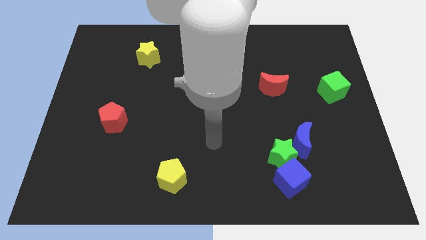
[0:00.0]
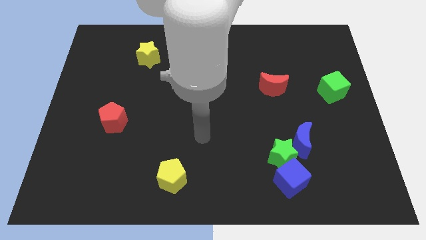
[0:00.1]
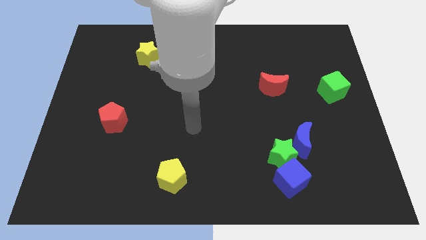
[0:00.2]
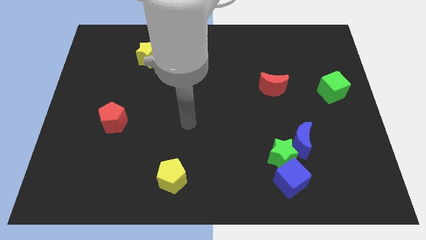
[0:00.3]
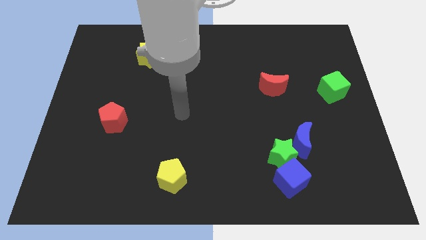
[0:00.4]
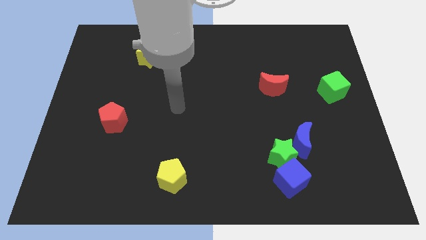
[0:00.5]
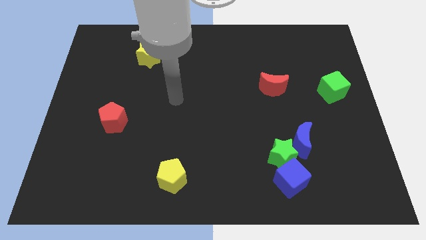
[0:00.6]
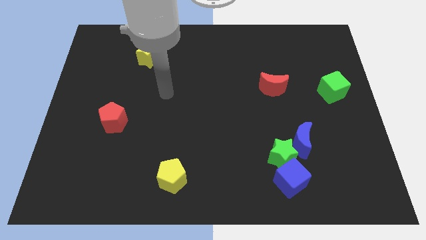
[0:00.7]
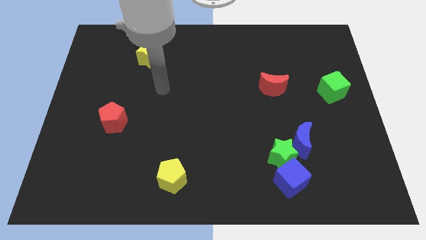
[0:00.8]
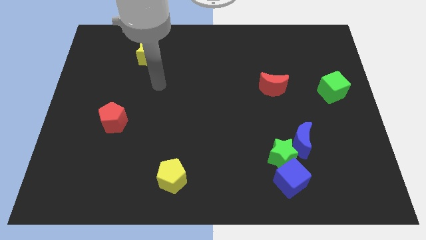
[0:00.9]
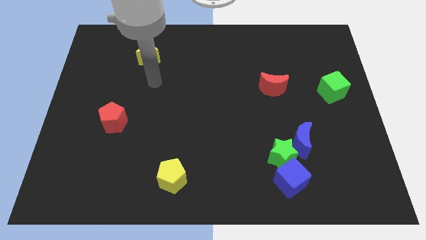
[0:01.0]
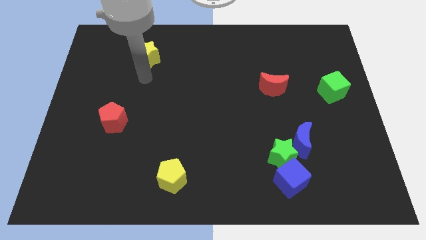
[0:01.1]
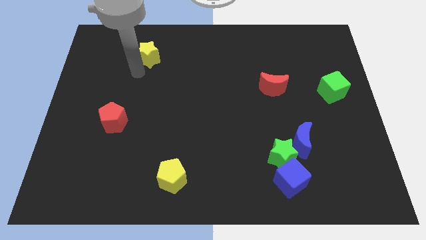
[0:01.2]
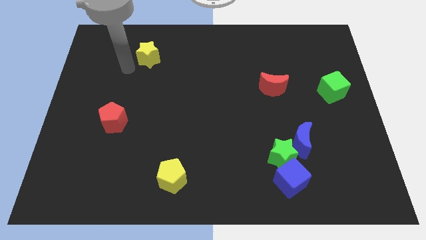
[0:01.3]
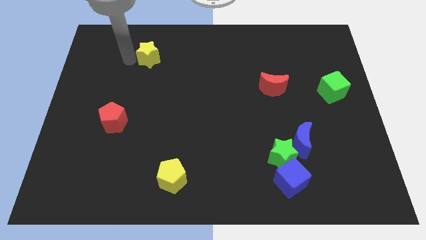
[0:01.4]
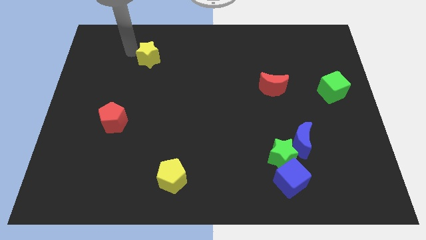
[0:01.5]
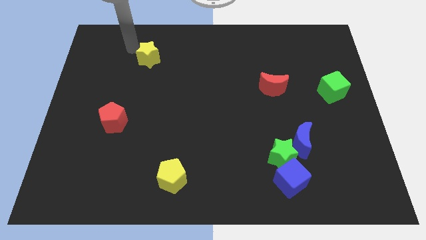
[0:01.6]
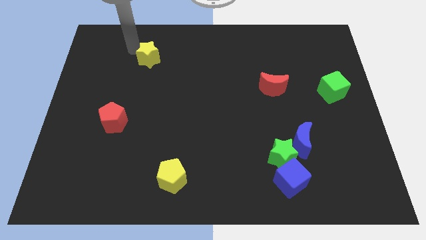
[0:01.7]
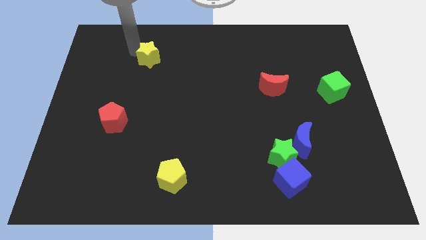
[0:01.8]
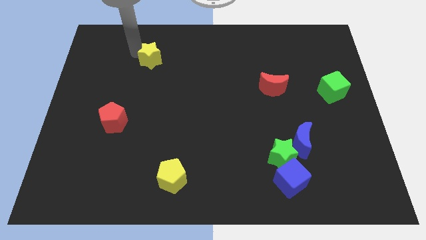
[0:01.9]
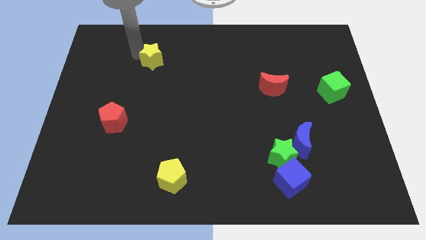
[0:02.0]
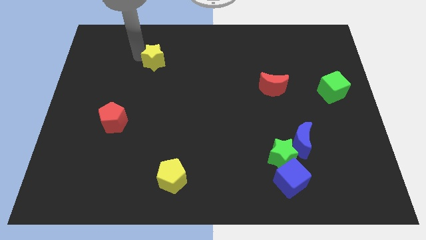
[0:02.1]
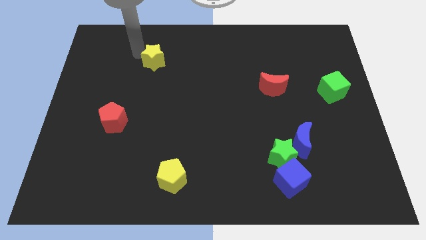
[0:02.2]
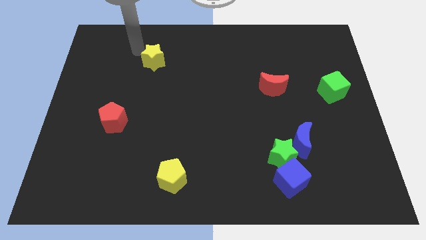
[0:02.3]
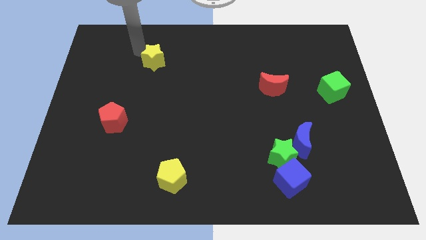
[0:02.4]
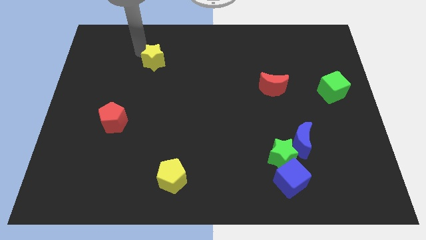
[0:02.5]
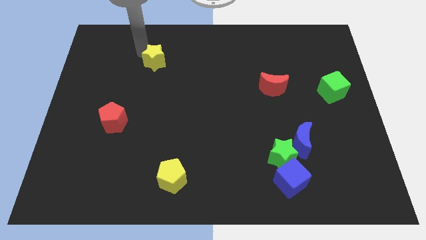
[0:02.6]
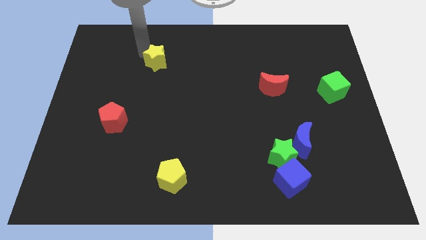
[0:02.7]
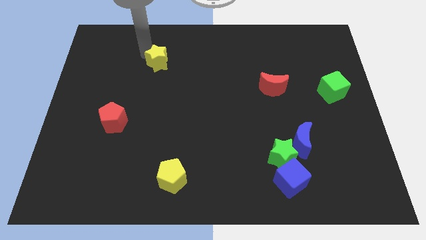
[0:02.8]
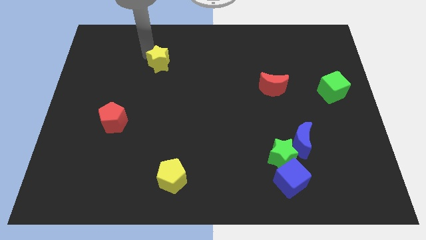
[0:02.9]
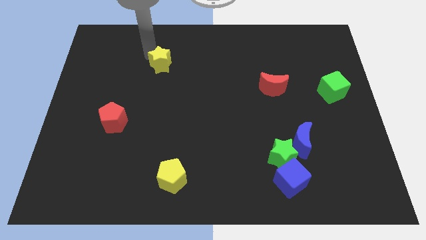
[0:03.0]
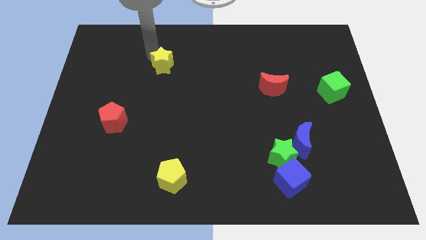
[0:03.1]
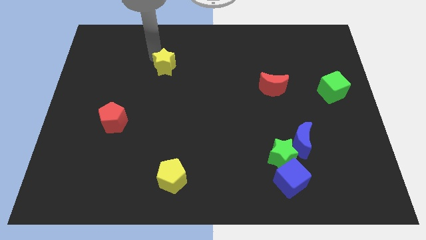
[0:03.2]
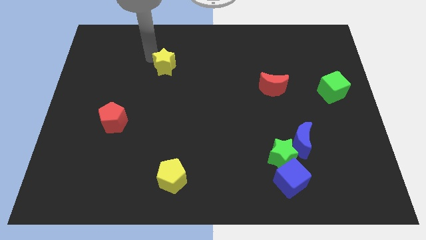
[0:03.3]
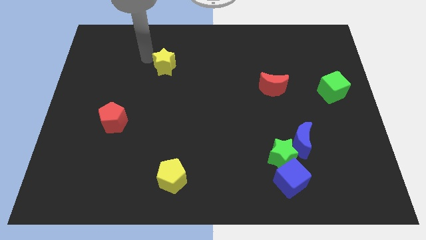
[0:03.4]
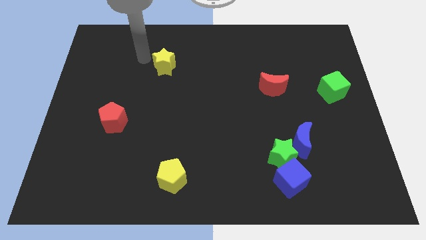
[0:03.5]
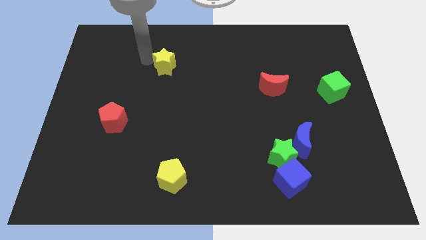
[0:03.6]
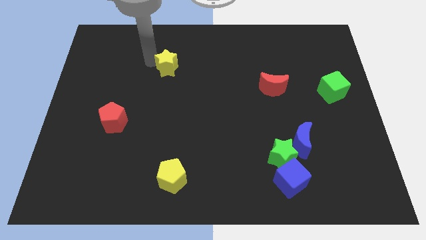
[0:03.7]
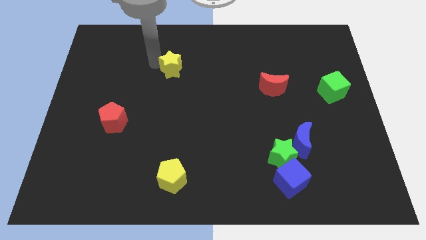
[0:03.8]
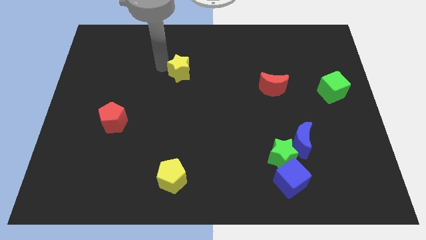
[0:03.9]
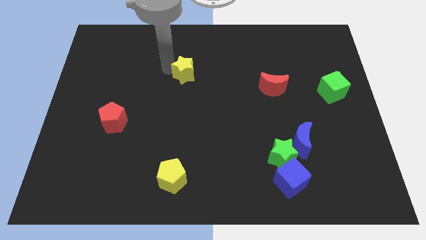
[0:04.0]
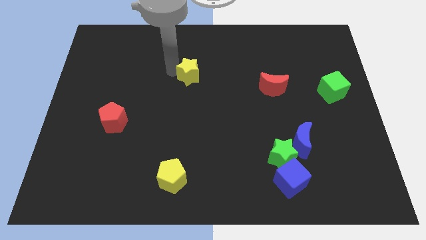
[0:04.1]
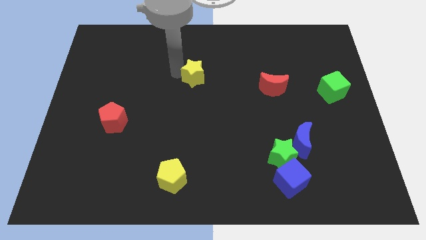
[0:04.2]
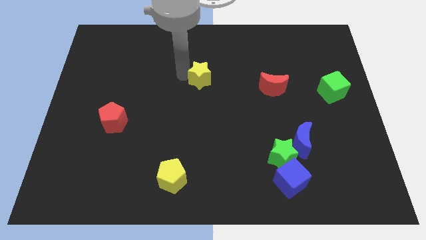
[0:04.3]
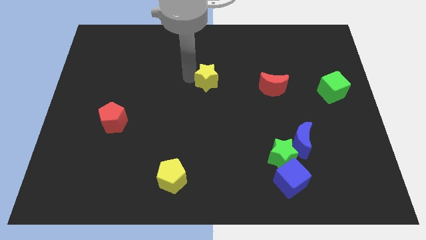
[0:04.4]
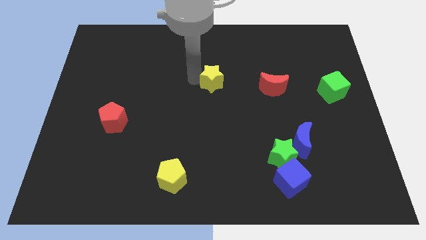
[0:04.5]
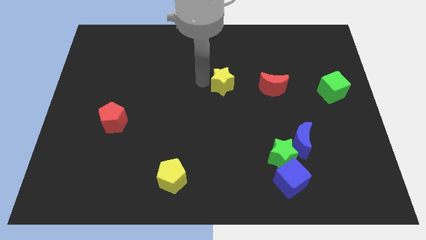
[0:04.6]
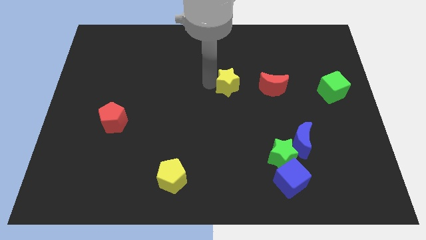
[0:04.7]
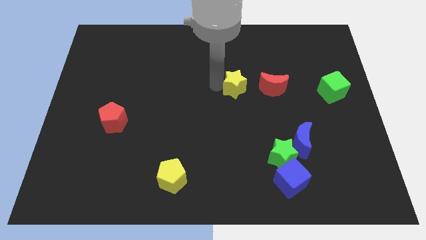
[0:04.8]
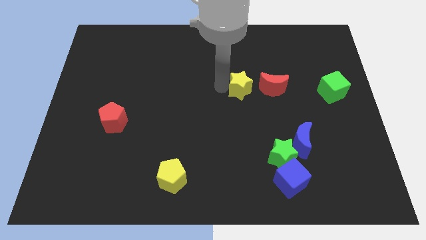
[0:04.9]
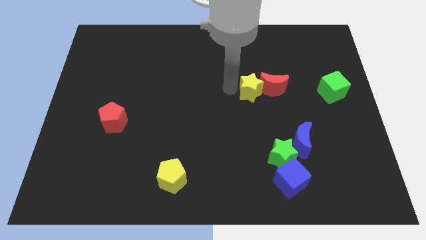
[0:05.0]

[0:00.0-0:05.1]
put the yellow star towards the red moon

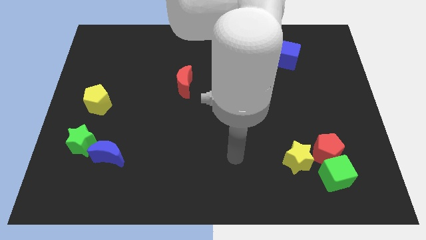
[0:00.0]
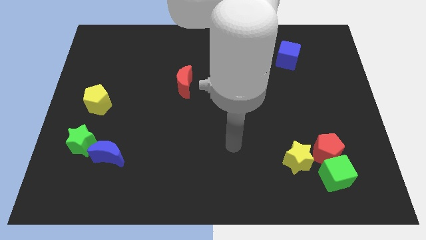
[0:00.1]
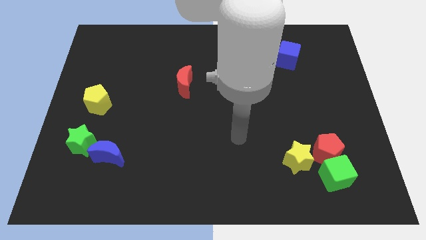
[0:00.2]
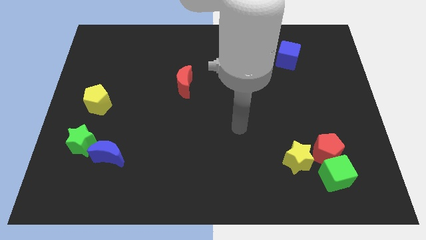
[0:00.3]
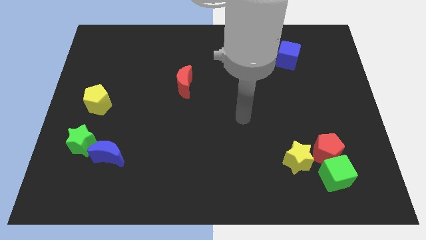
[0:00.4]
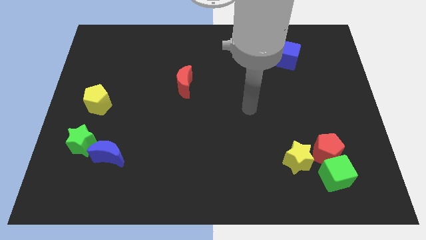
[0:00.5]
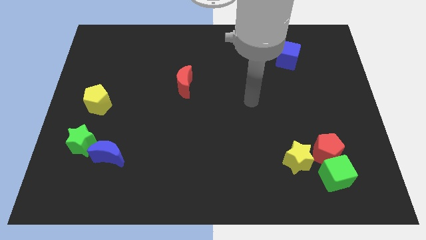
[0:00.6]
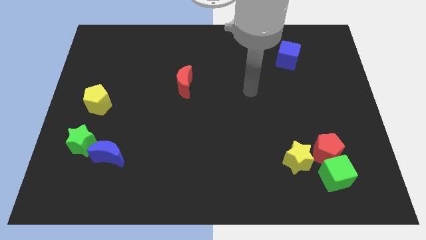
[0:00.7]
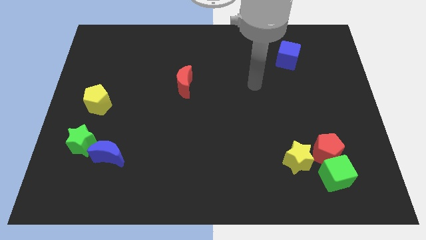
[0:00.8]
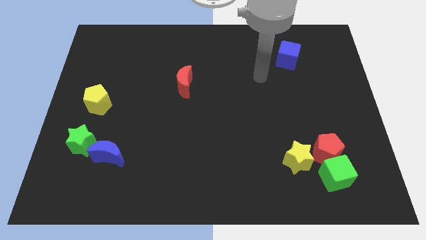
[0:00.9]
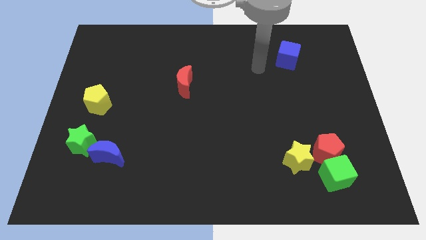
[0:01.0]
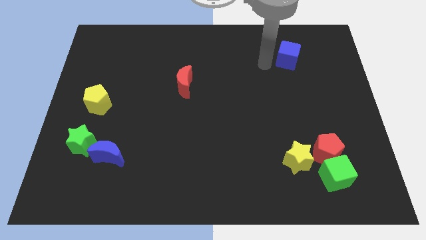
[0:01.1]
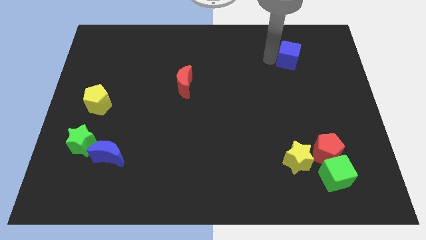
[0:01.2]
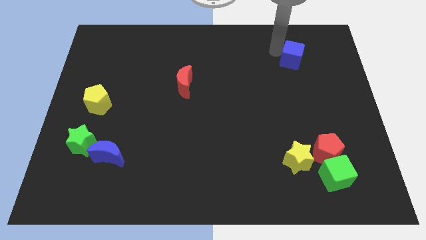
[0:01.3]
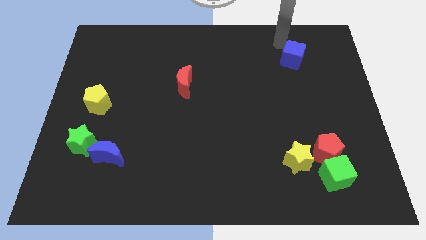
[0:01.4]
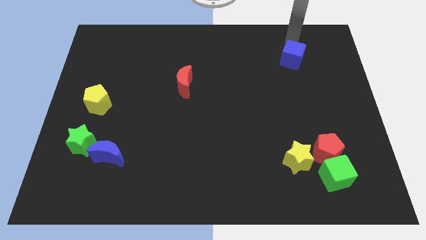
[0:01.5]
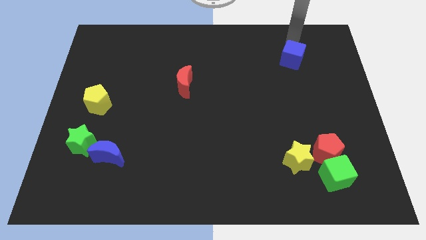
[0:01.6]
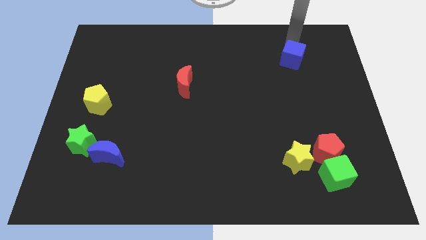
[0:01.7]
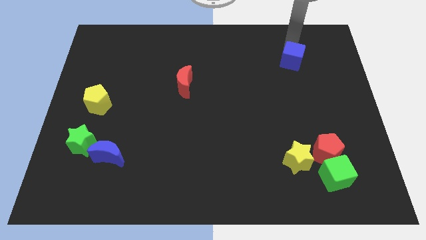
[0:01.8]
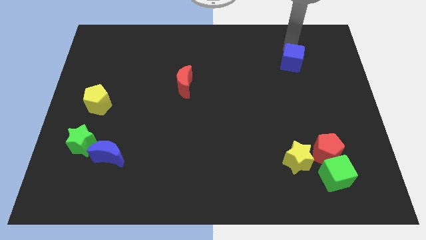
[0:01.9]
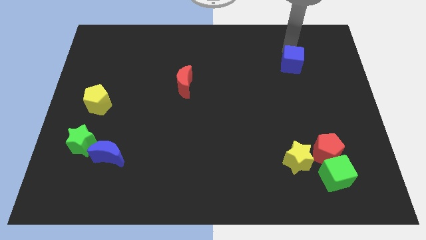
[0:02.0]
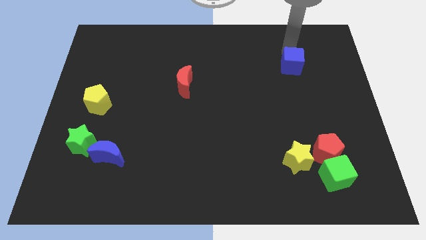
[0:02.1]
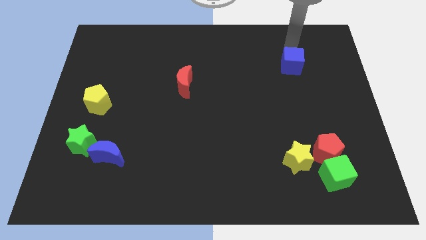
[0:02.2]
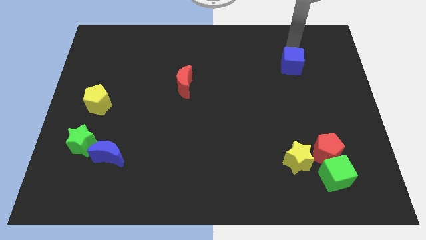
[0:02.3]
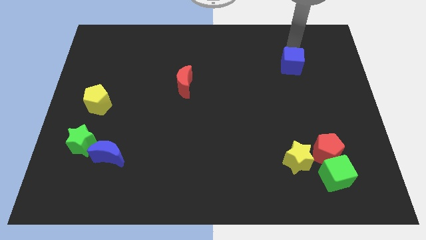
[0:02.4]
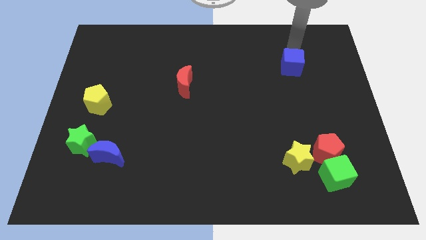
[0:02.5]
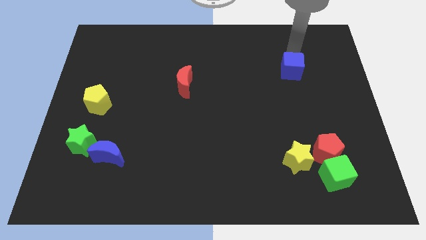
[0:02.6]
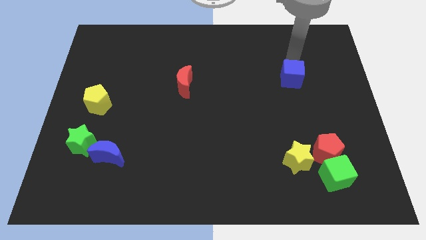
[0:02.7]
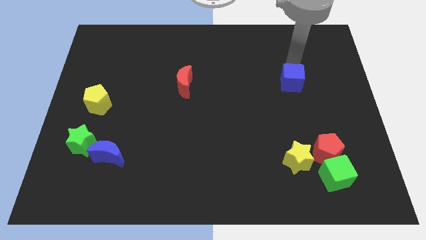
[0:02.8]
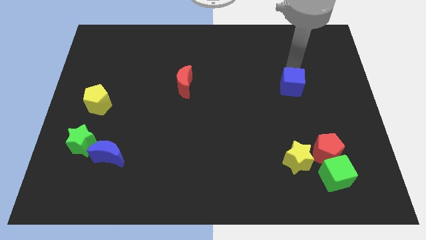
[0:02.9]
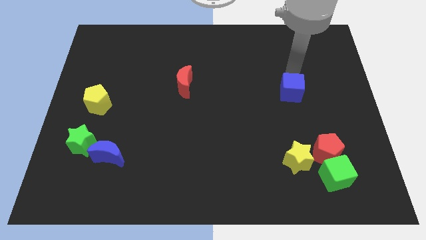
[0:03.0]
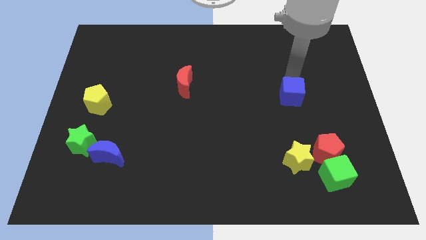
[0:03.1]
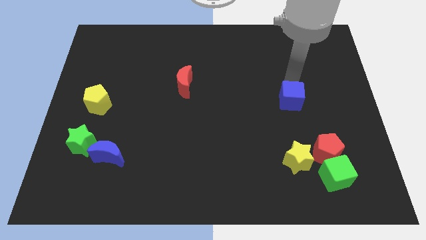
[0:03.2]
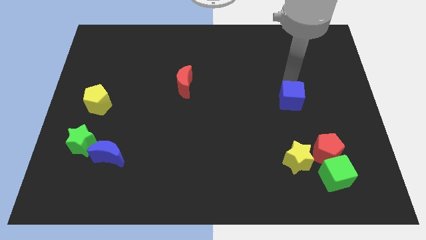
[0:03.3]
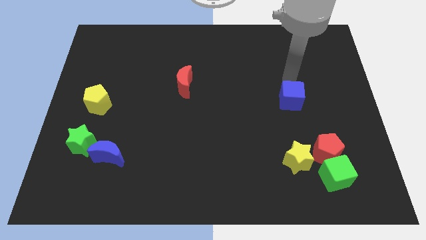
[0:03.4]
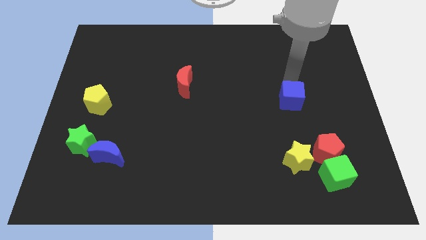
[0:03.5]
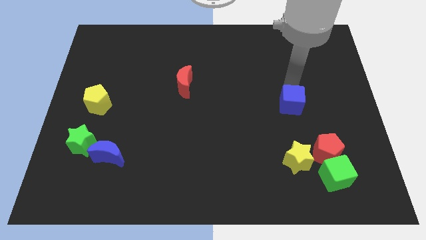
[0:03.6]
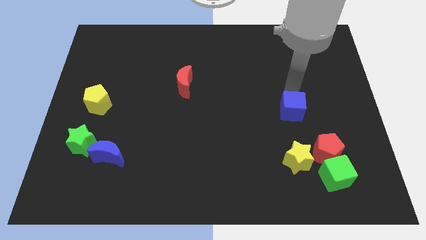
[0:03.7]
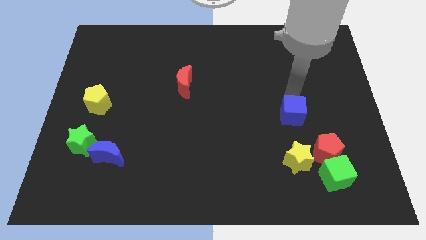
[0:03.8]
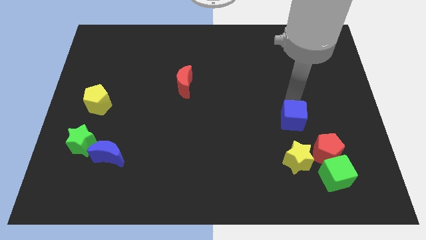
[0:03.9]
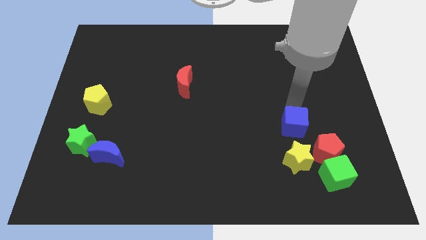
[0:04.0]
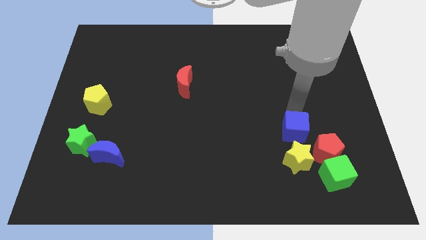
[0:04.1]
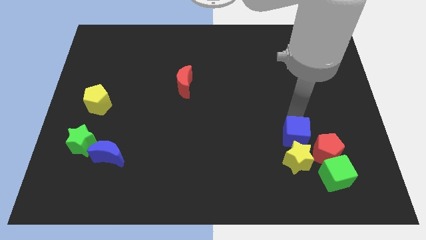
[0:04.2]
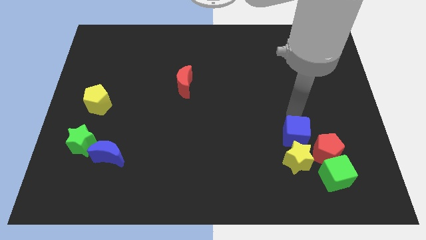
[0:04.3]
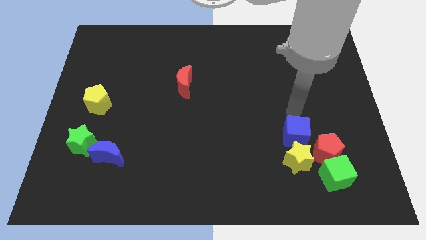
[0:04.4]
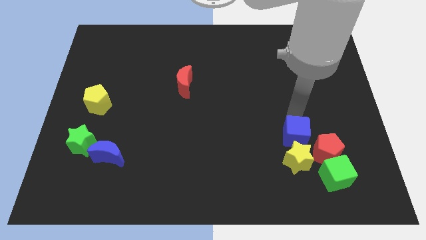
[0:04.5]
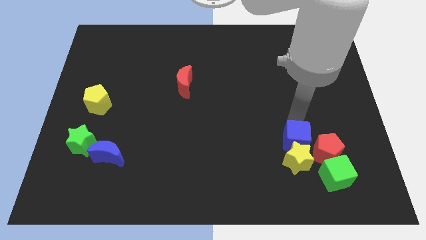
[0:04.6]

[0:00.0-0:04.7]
move the blue cube towards the yellow star
